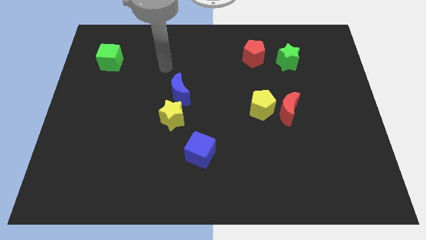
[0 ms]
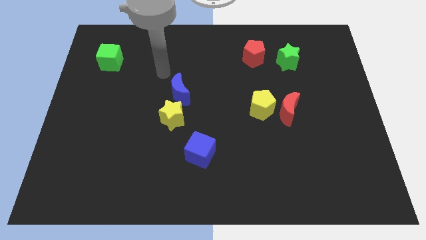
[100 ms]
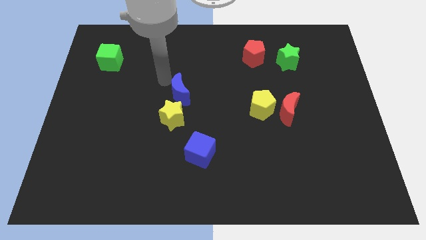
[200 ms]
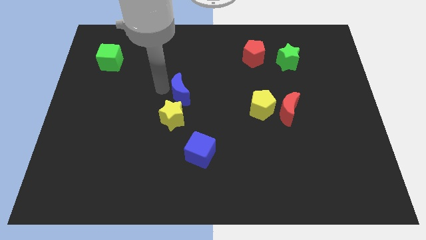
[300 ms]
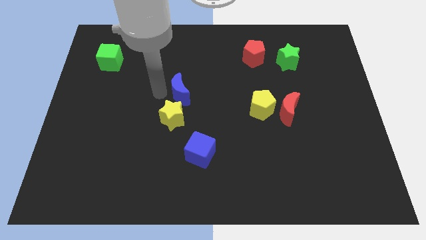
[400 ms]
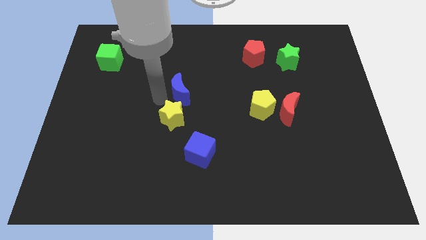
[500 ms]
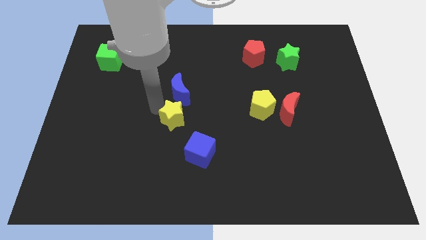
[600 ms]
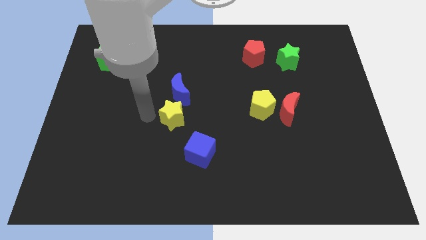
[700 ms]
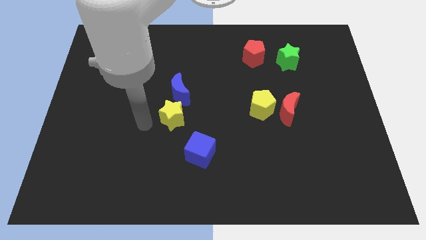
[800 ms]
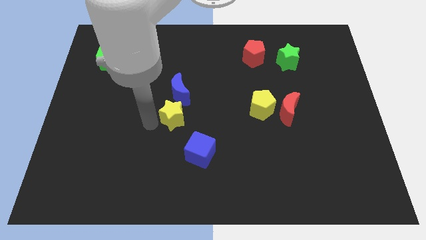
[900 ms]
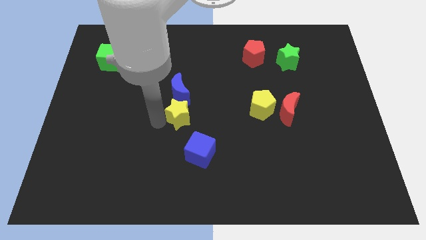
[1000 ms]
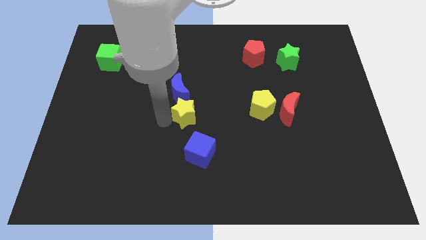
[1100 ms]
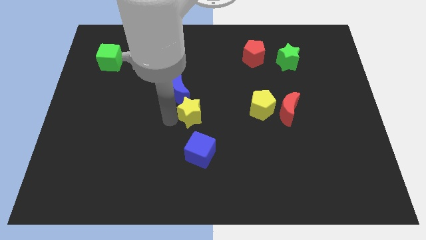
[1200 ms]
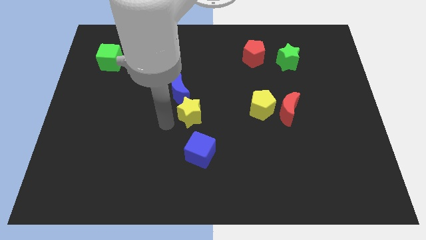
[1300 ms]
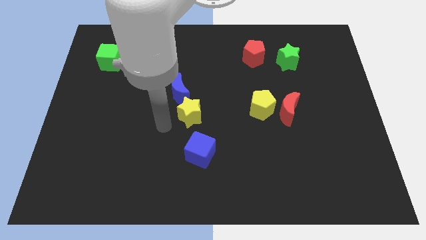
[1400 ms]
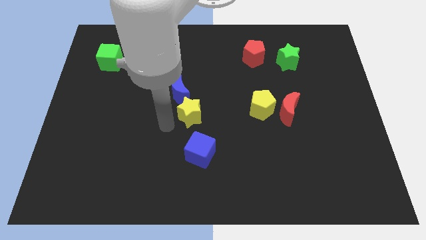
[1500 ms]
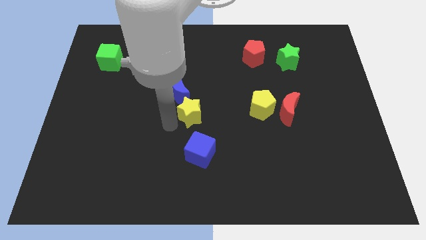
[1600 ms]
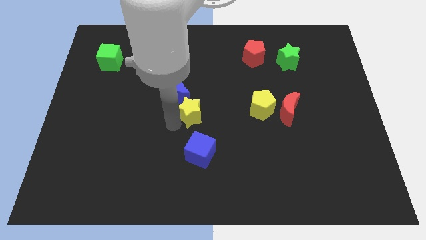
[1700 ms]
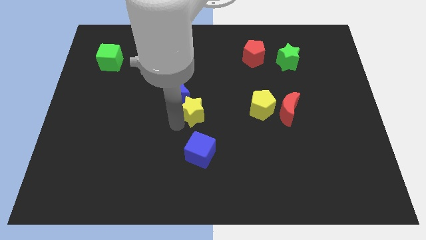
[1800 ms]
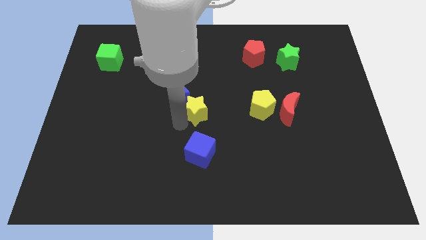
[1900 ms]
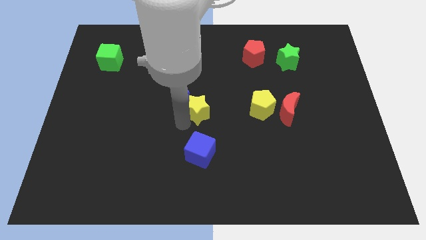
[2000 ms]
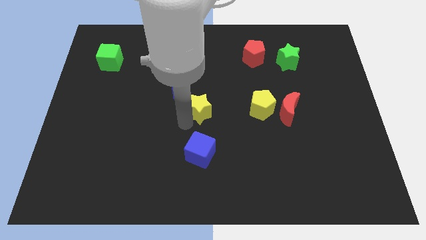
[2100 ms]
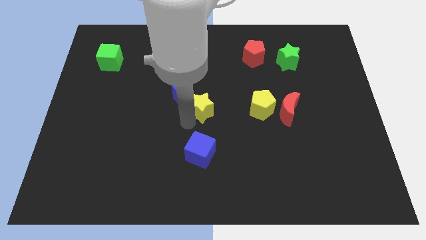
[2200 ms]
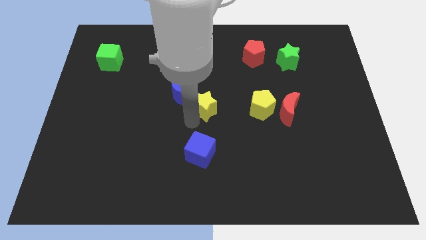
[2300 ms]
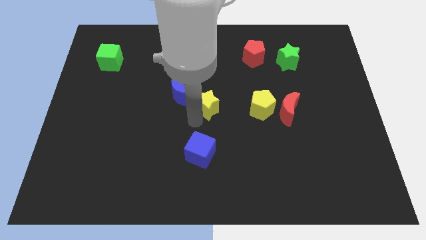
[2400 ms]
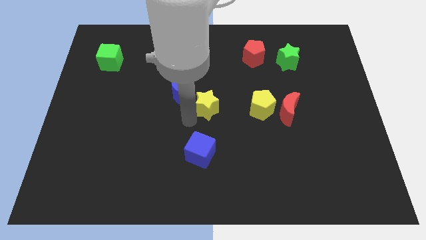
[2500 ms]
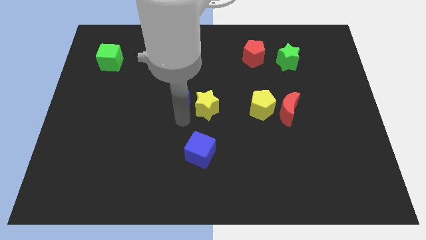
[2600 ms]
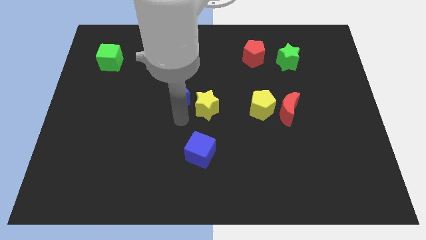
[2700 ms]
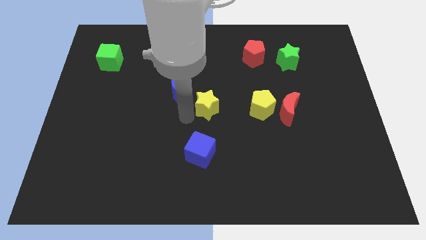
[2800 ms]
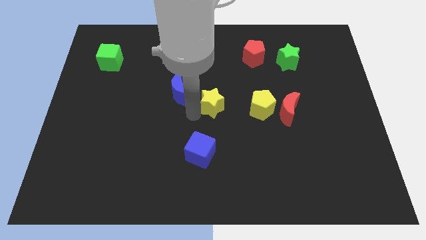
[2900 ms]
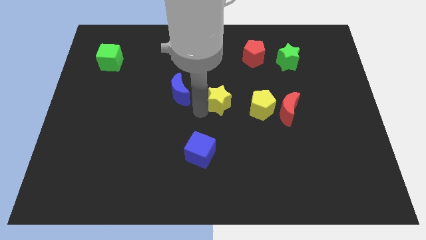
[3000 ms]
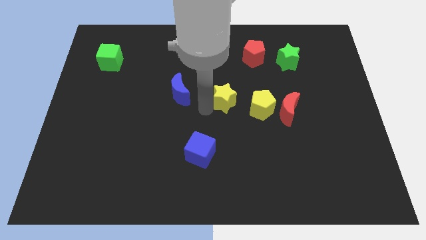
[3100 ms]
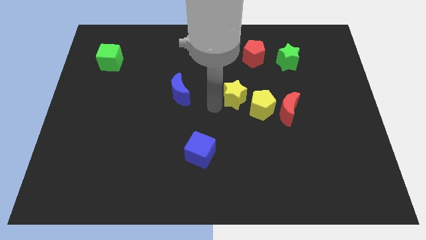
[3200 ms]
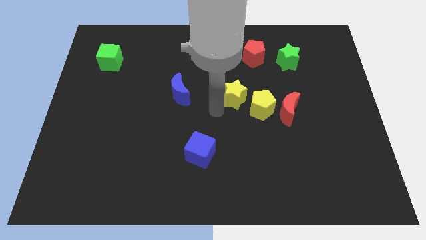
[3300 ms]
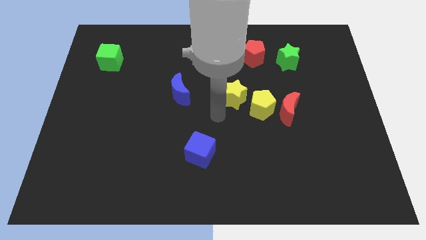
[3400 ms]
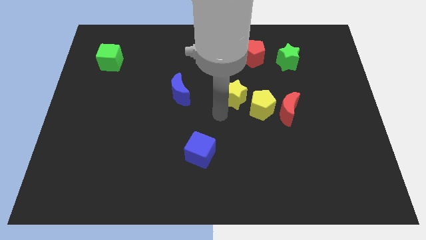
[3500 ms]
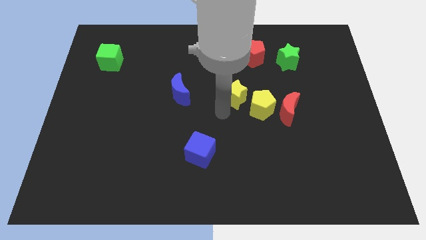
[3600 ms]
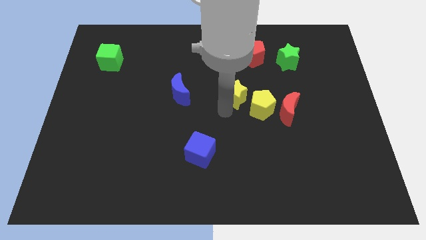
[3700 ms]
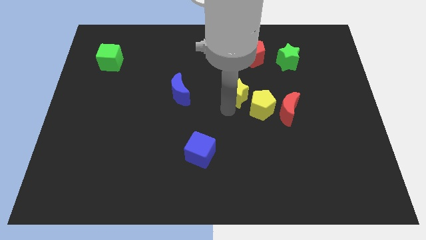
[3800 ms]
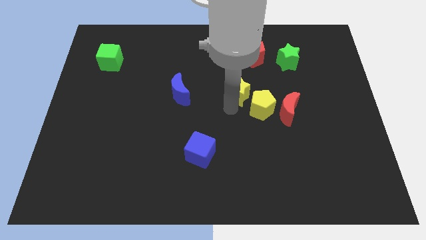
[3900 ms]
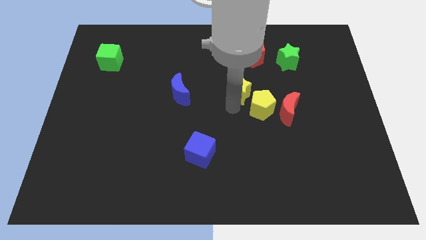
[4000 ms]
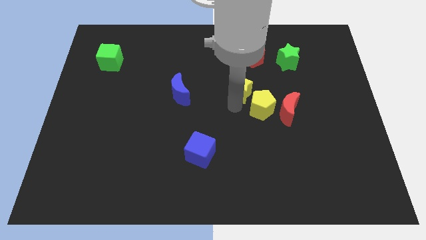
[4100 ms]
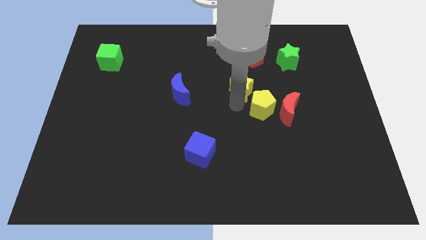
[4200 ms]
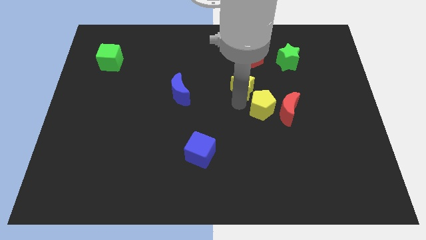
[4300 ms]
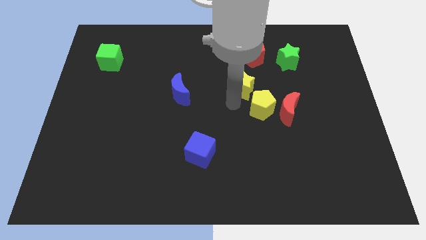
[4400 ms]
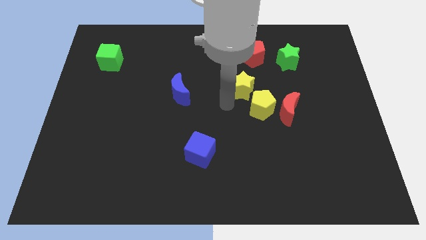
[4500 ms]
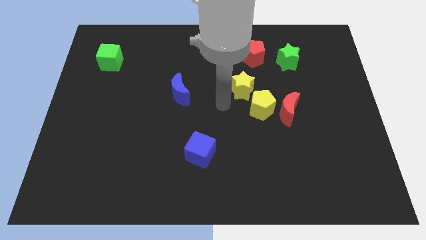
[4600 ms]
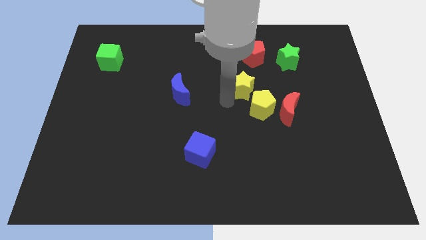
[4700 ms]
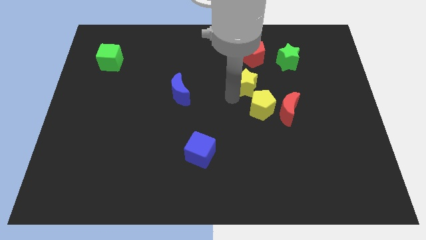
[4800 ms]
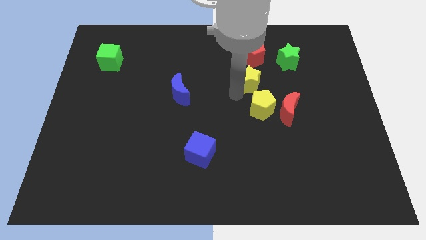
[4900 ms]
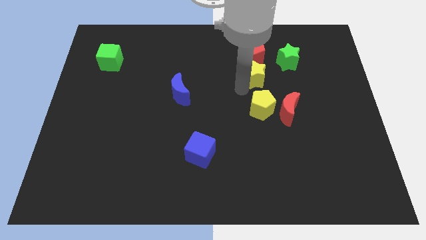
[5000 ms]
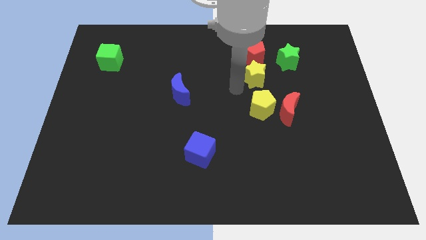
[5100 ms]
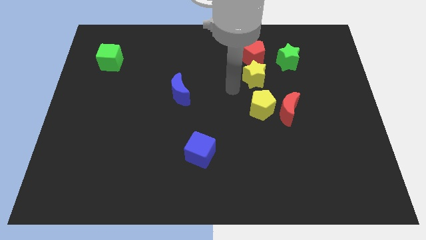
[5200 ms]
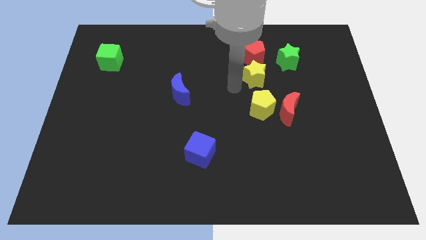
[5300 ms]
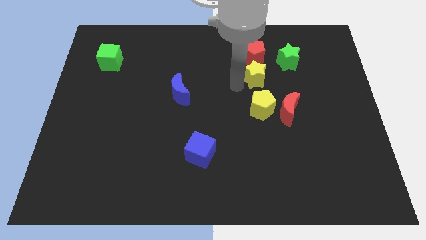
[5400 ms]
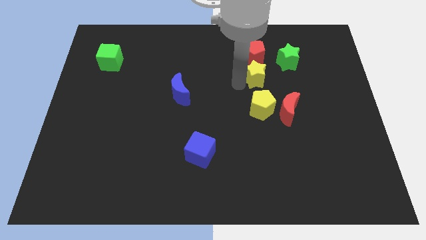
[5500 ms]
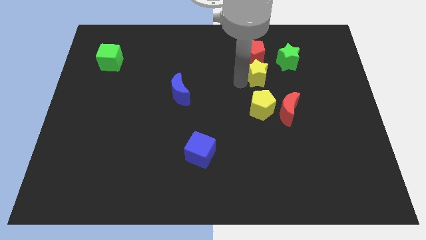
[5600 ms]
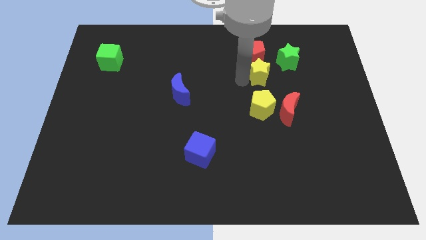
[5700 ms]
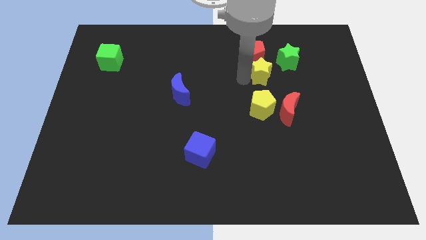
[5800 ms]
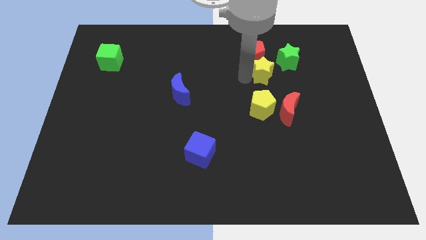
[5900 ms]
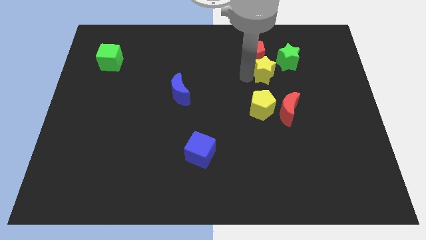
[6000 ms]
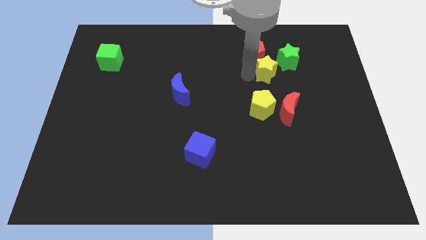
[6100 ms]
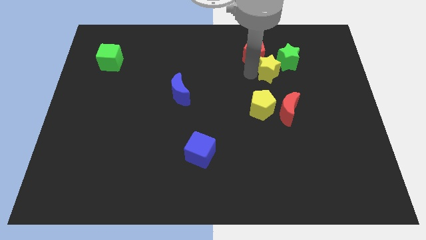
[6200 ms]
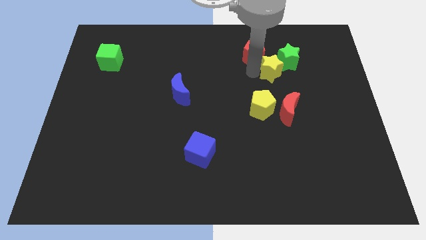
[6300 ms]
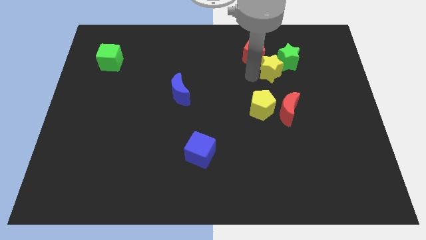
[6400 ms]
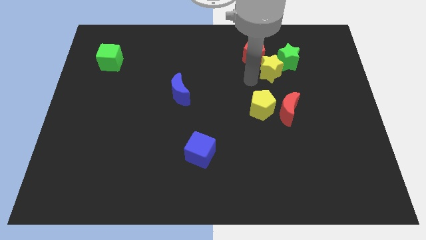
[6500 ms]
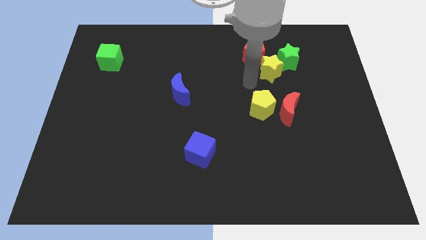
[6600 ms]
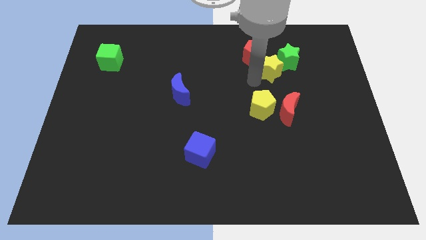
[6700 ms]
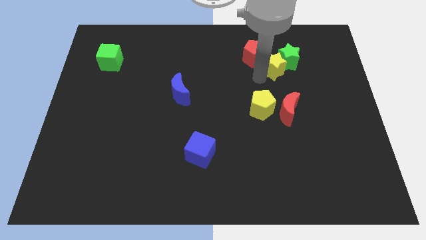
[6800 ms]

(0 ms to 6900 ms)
put the yellow star to the green star
